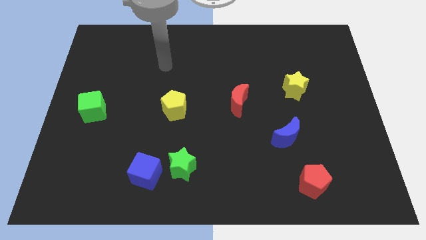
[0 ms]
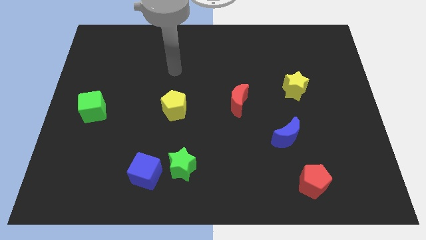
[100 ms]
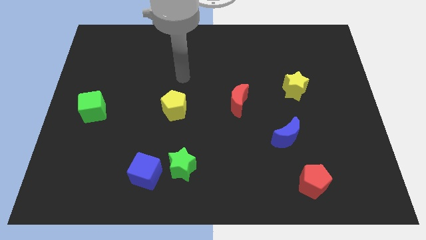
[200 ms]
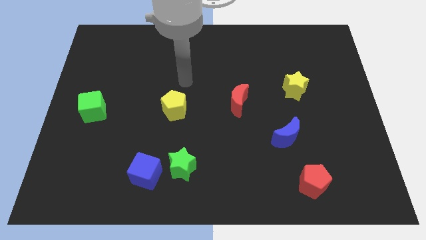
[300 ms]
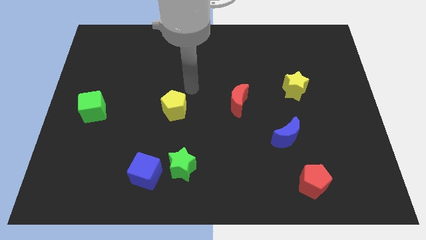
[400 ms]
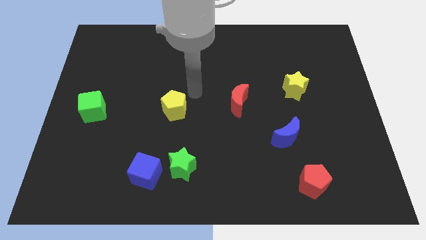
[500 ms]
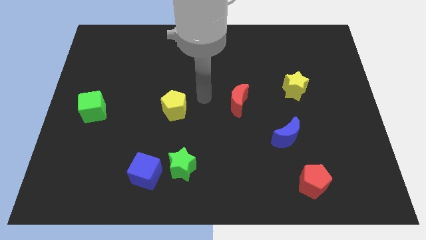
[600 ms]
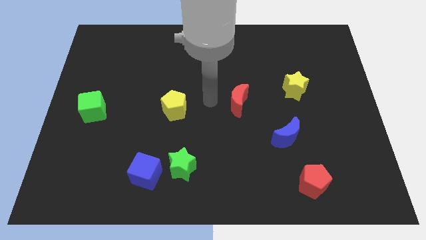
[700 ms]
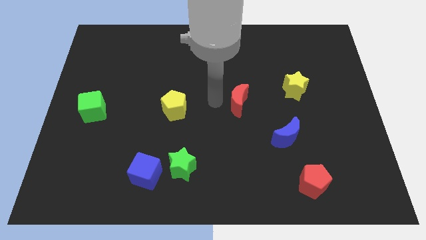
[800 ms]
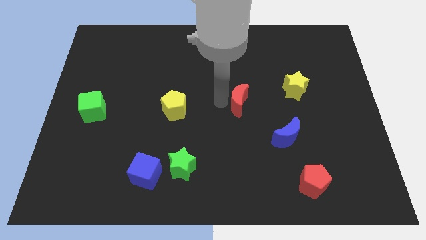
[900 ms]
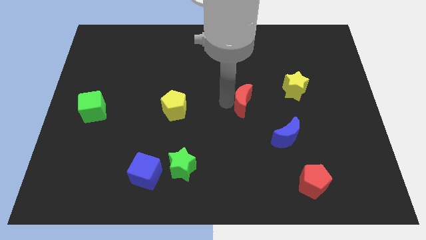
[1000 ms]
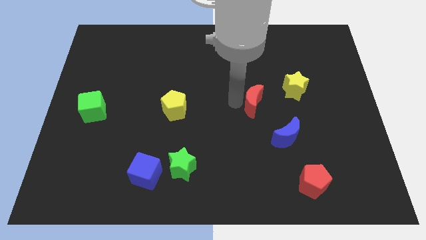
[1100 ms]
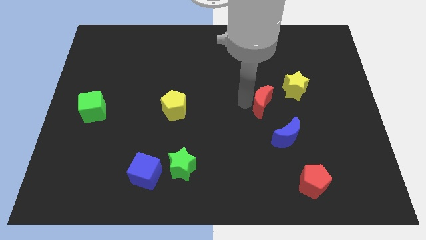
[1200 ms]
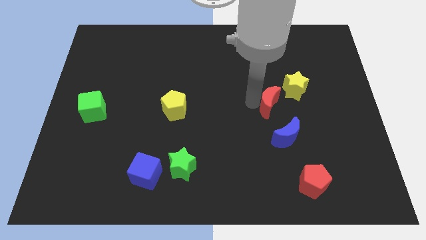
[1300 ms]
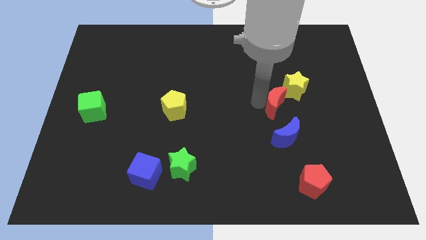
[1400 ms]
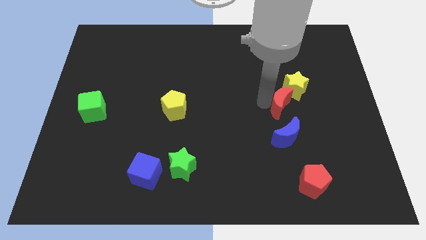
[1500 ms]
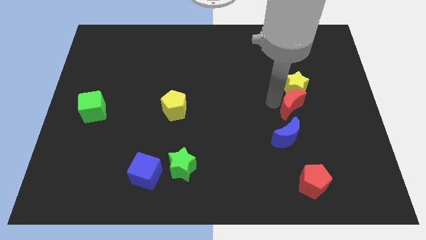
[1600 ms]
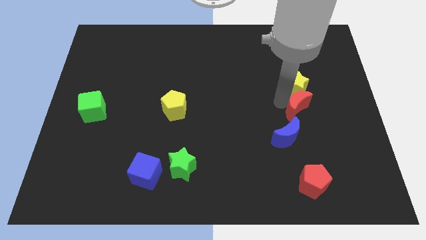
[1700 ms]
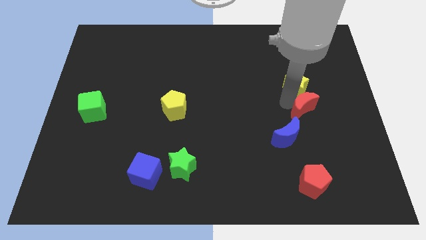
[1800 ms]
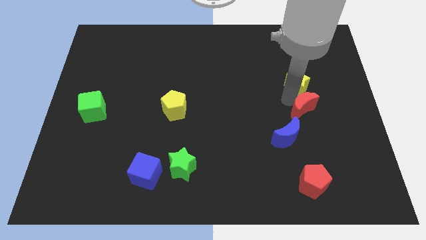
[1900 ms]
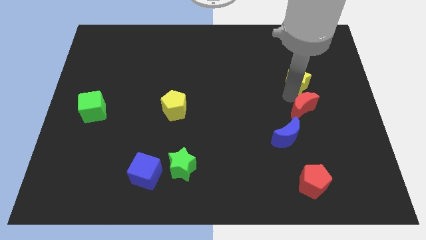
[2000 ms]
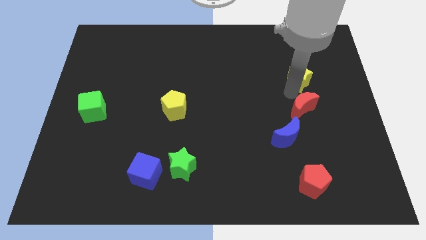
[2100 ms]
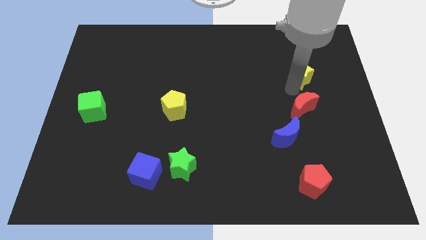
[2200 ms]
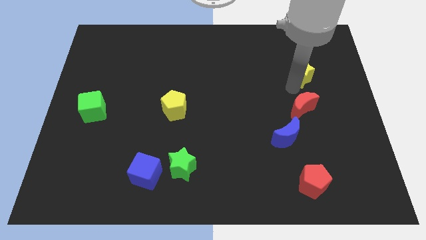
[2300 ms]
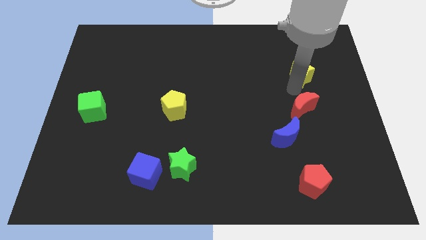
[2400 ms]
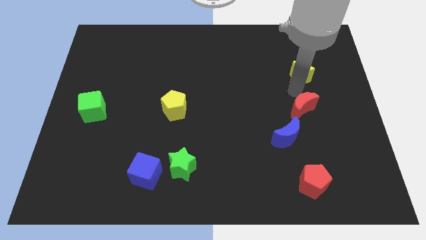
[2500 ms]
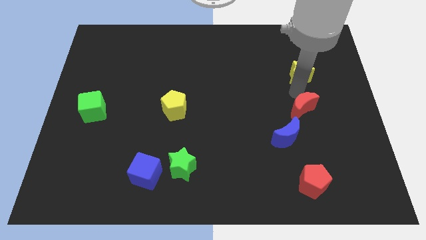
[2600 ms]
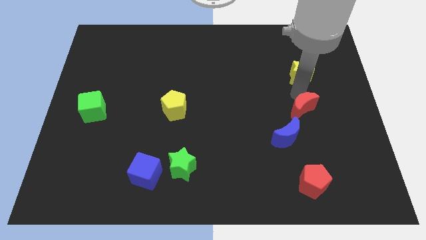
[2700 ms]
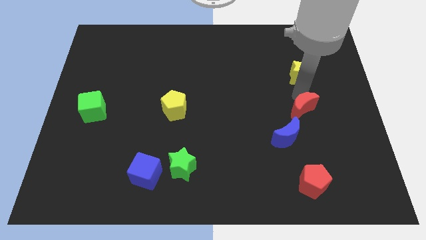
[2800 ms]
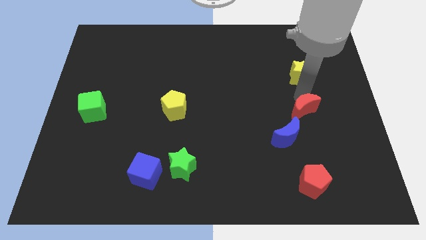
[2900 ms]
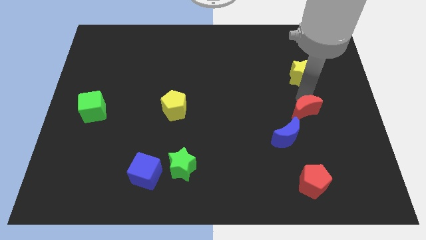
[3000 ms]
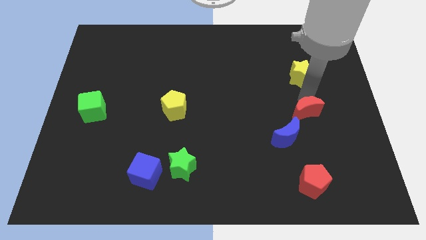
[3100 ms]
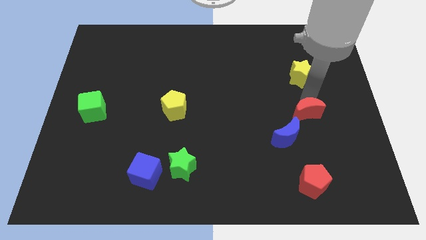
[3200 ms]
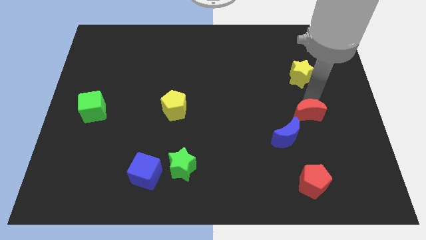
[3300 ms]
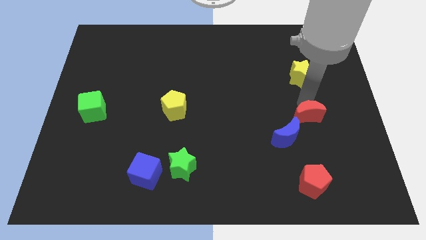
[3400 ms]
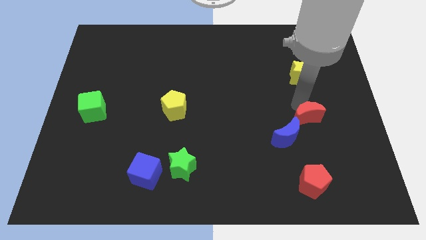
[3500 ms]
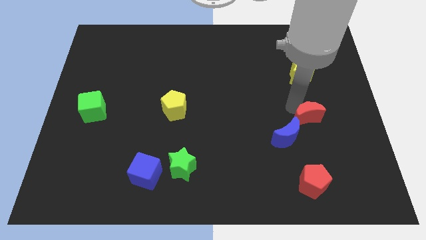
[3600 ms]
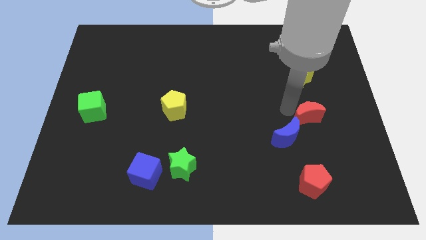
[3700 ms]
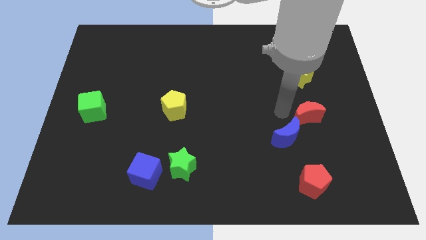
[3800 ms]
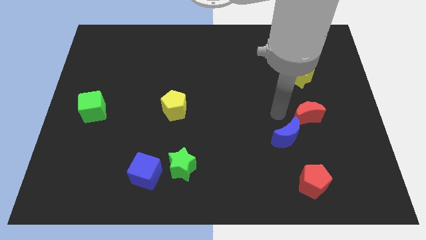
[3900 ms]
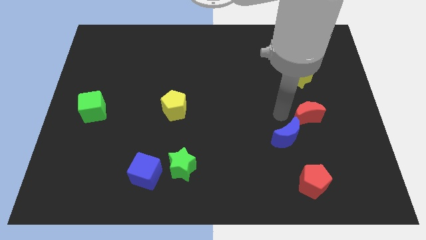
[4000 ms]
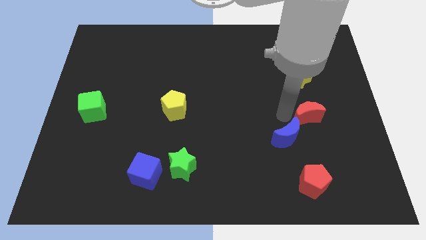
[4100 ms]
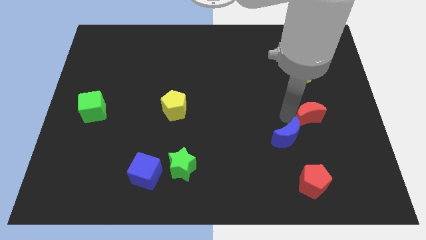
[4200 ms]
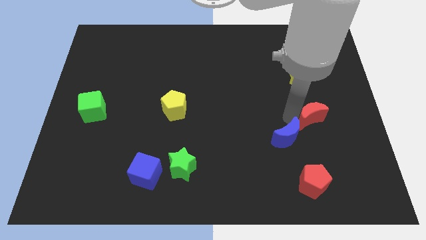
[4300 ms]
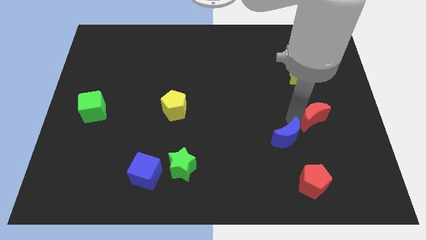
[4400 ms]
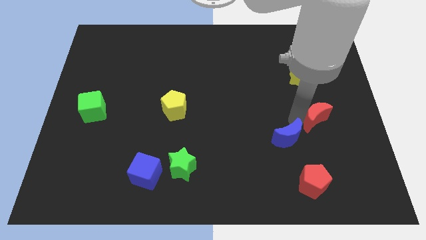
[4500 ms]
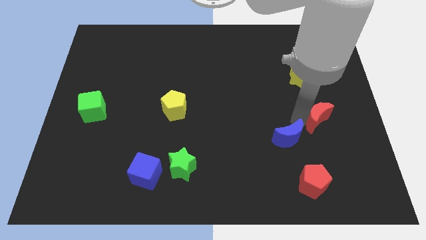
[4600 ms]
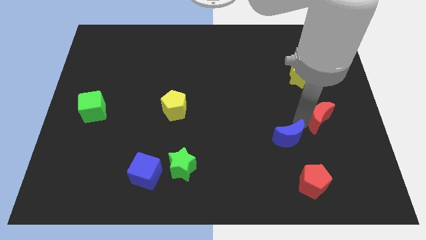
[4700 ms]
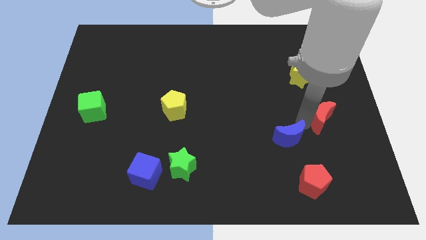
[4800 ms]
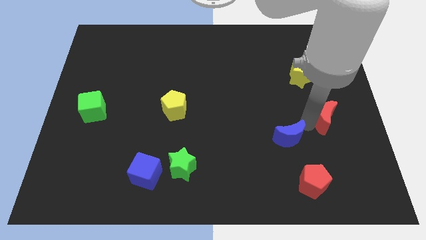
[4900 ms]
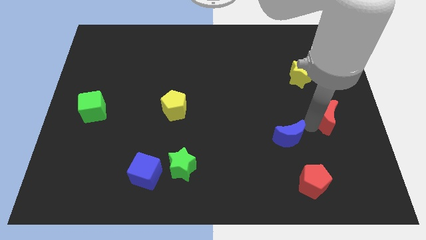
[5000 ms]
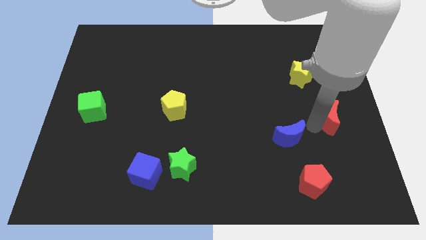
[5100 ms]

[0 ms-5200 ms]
push the red moon to the right side of the board

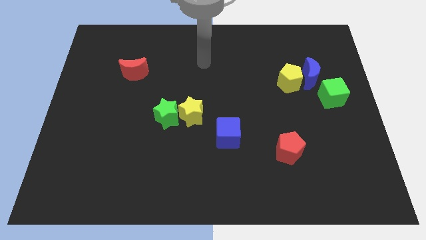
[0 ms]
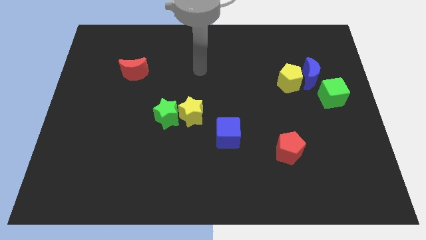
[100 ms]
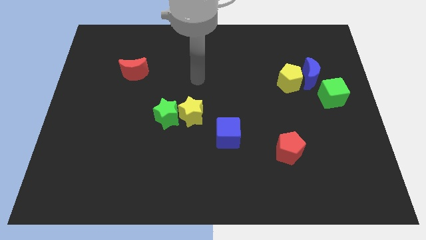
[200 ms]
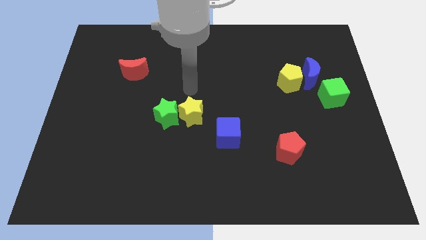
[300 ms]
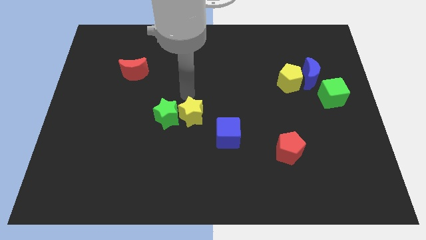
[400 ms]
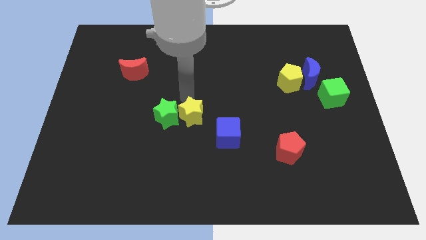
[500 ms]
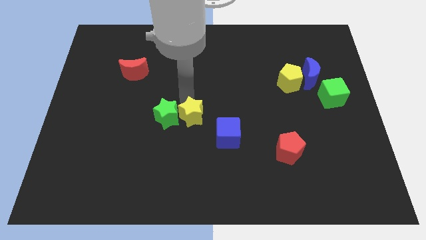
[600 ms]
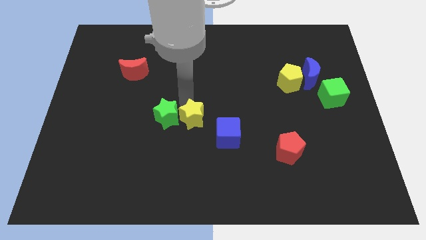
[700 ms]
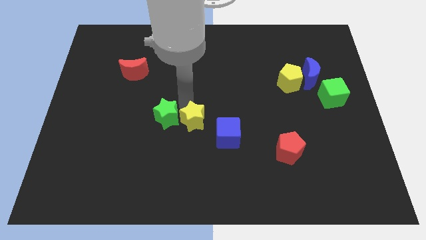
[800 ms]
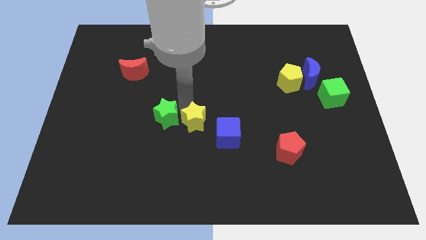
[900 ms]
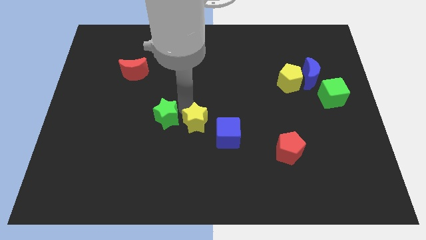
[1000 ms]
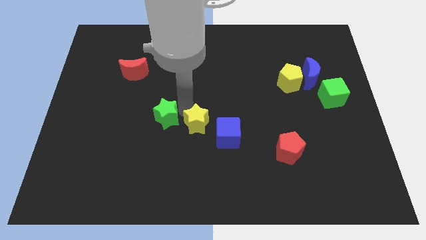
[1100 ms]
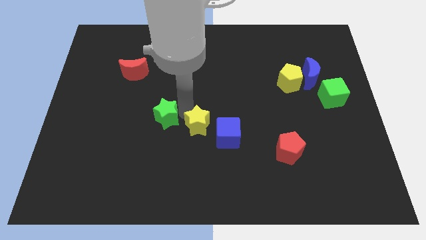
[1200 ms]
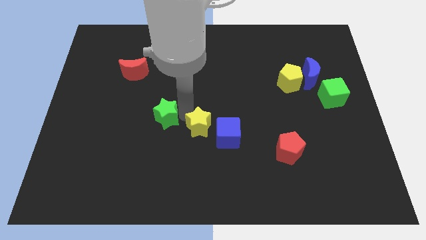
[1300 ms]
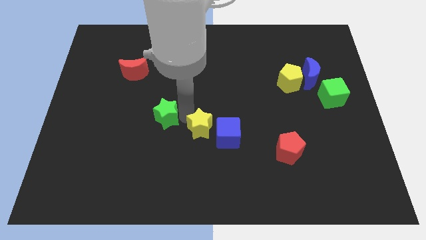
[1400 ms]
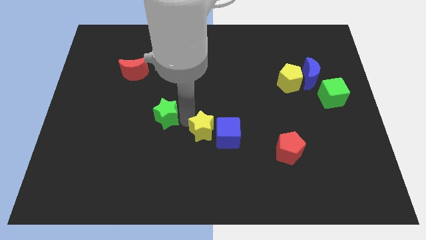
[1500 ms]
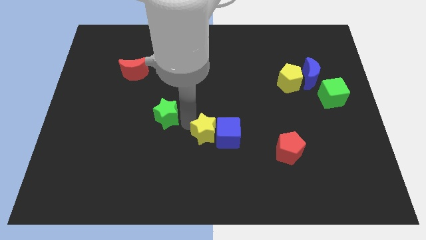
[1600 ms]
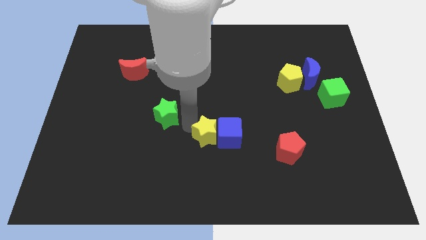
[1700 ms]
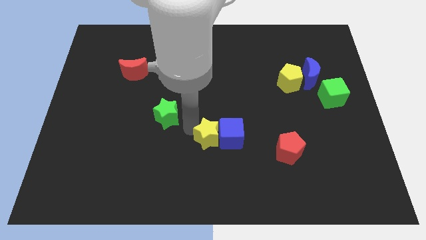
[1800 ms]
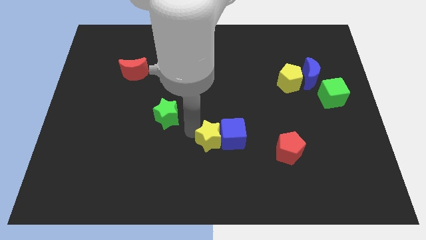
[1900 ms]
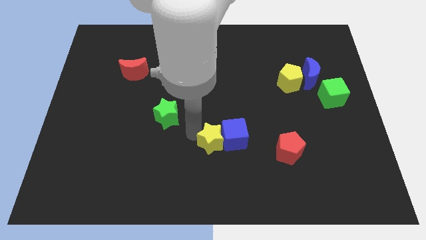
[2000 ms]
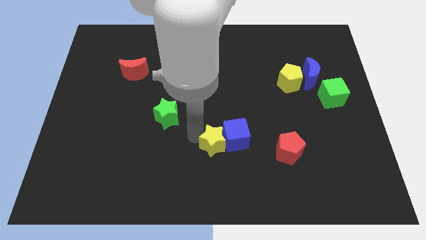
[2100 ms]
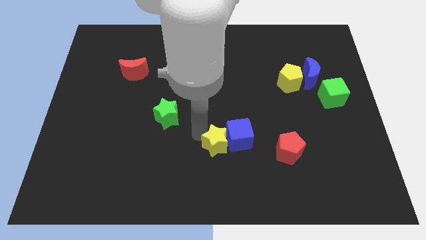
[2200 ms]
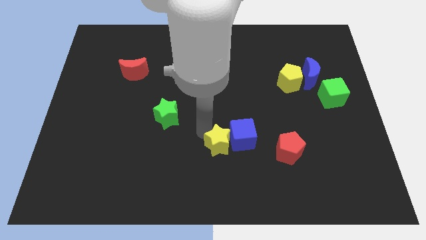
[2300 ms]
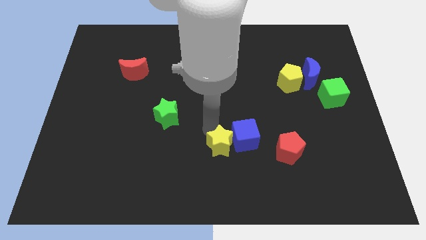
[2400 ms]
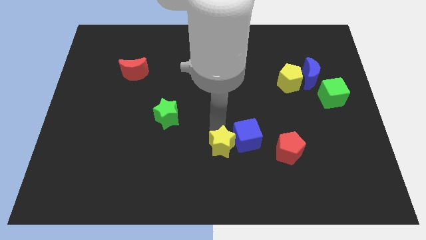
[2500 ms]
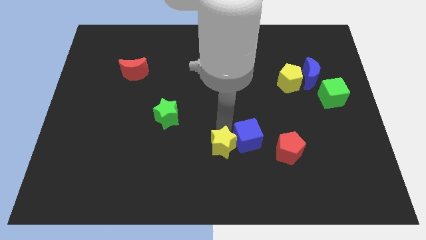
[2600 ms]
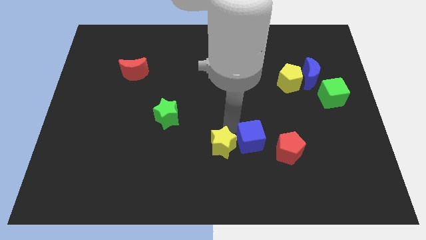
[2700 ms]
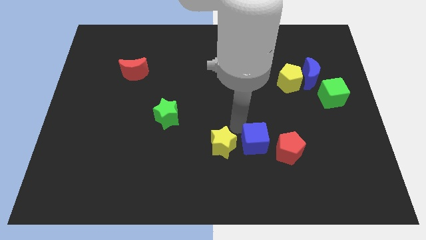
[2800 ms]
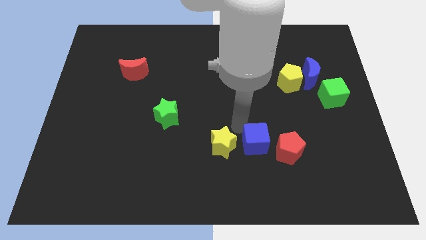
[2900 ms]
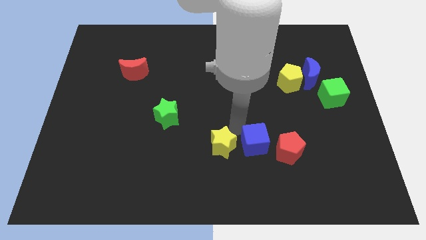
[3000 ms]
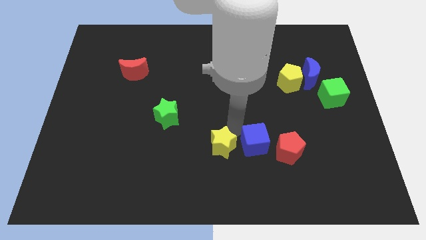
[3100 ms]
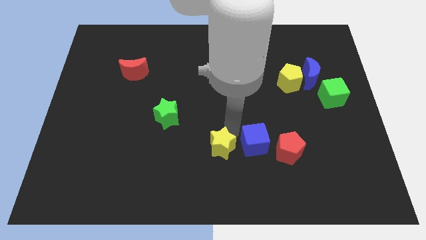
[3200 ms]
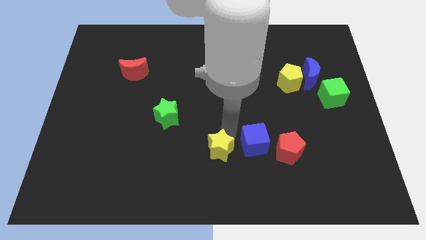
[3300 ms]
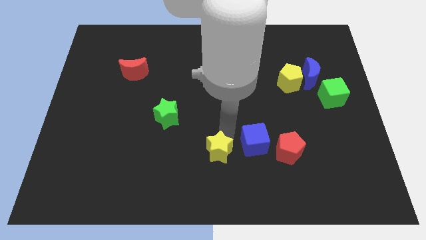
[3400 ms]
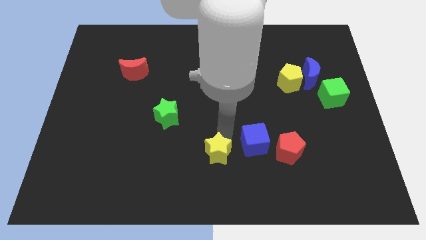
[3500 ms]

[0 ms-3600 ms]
push the yellow star to the bottom
